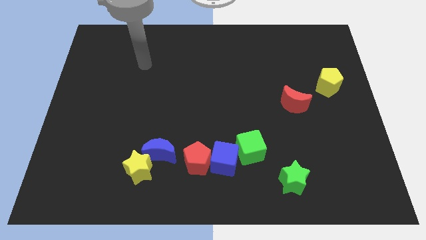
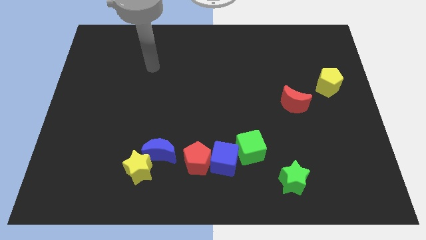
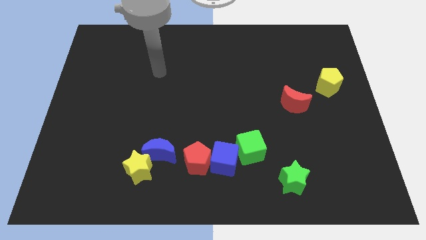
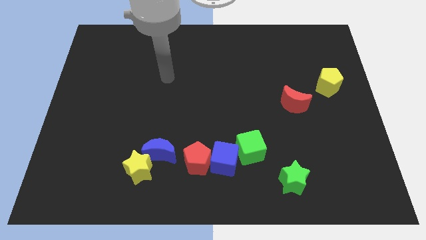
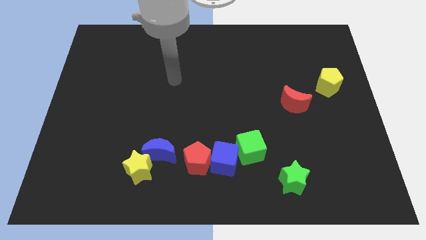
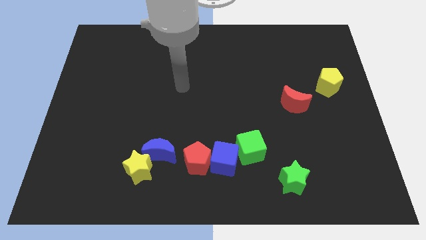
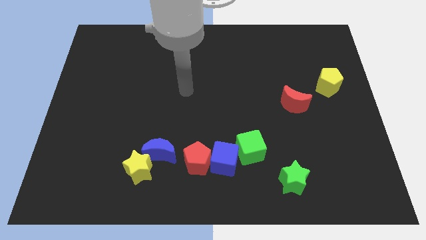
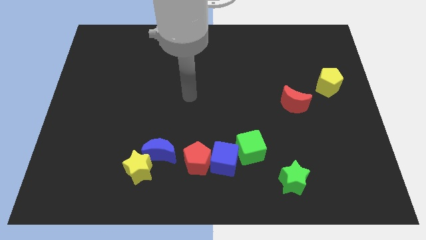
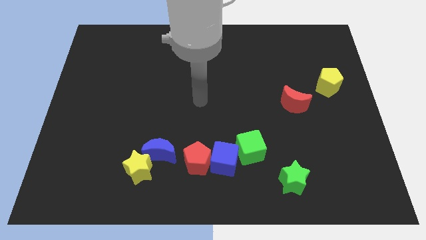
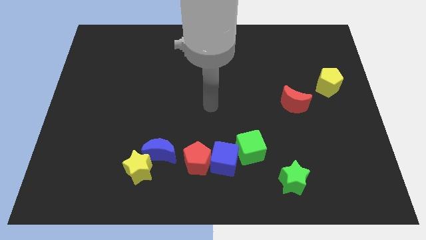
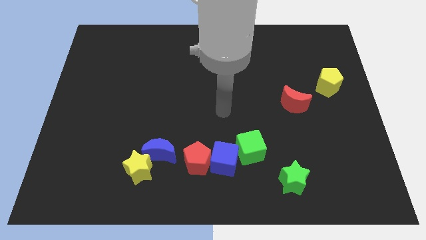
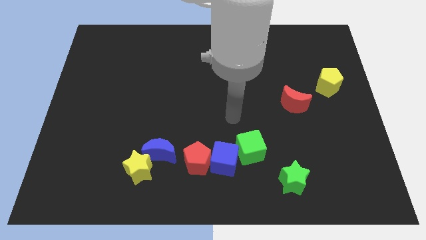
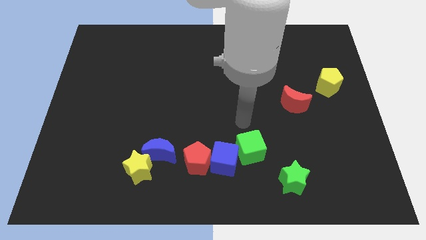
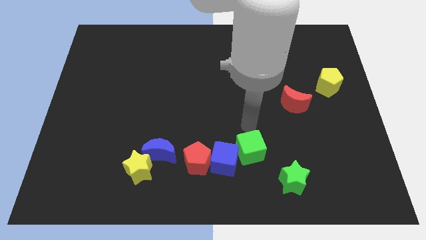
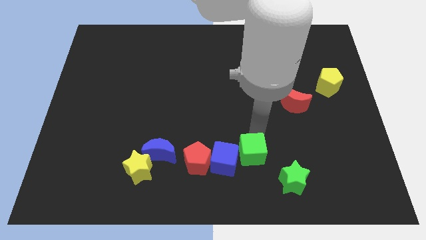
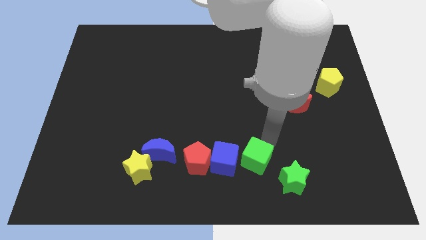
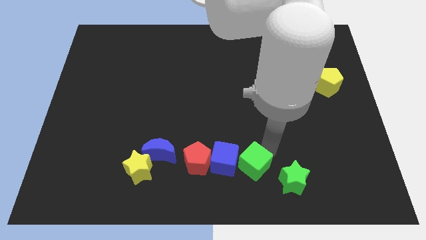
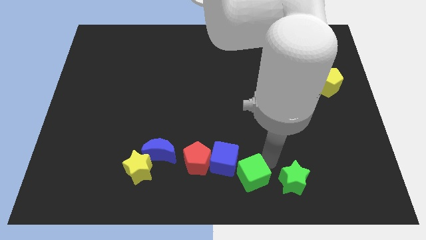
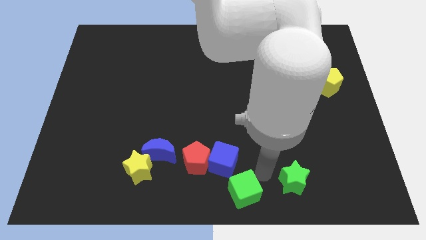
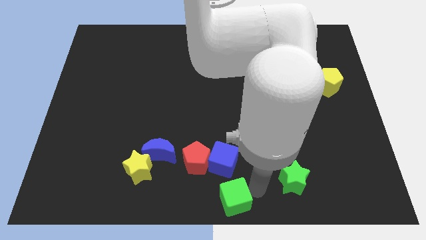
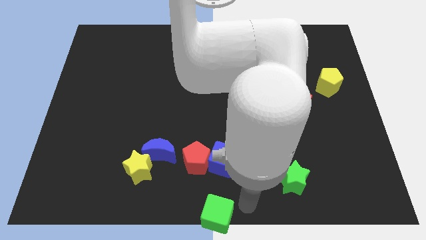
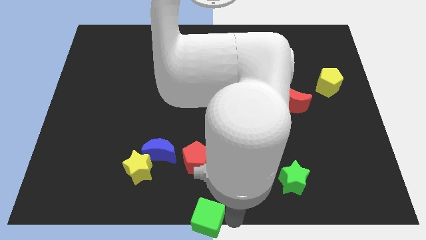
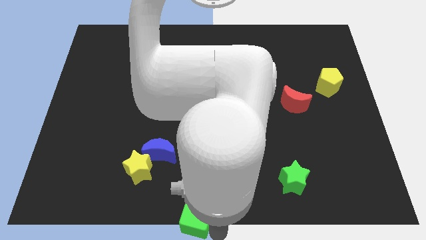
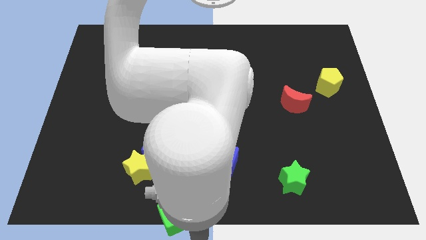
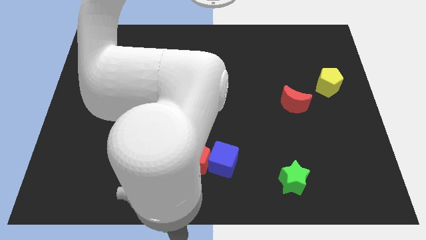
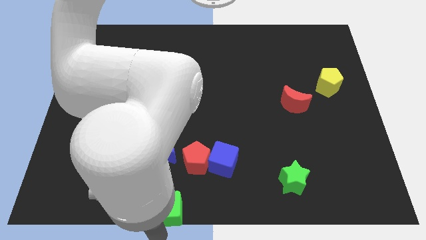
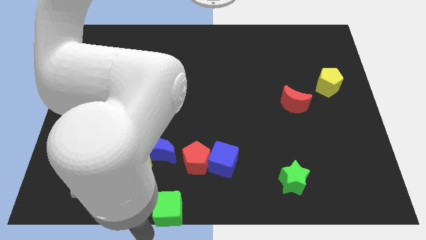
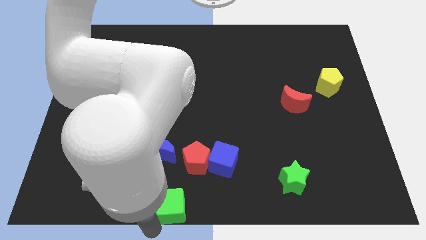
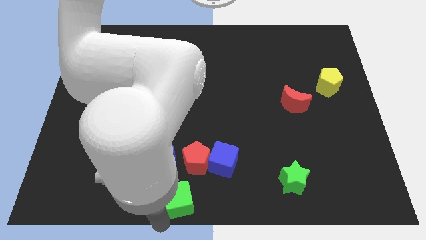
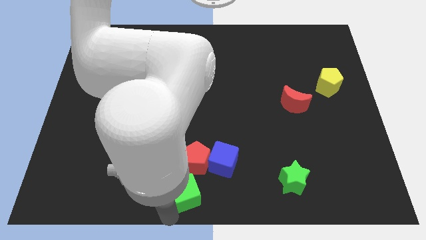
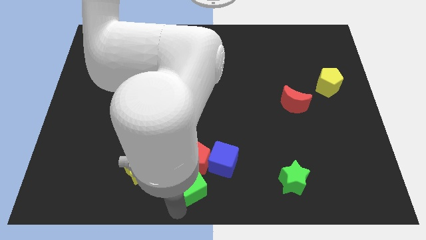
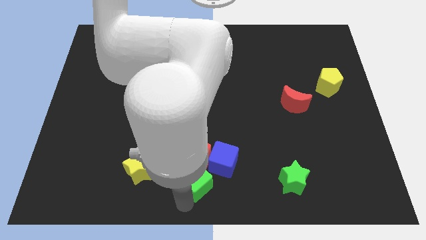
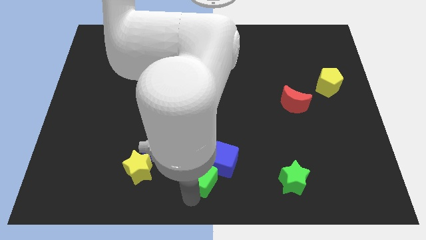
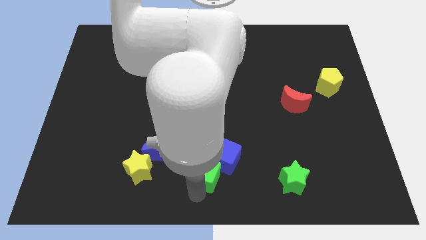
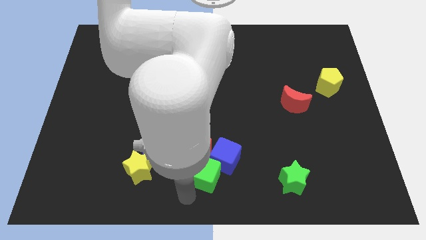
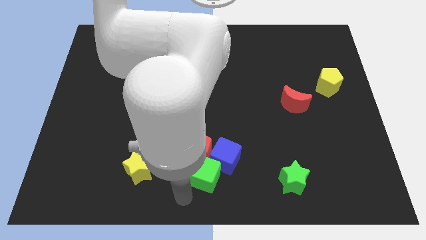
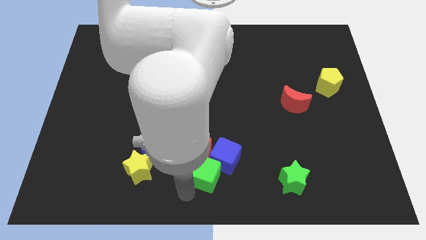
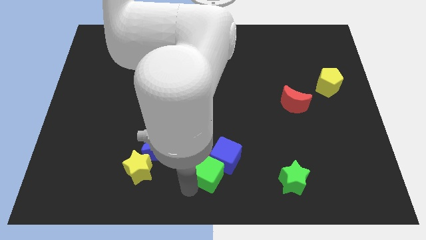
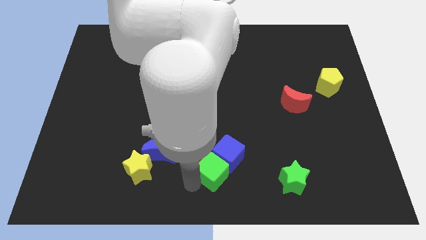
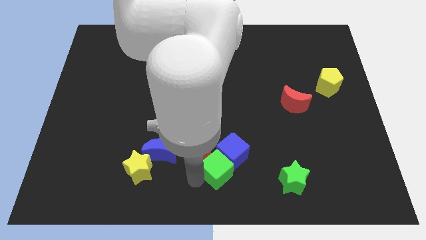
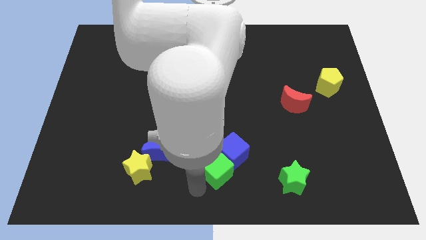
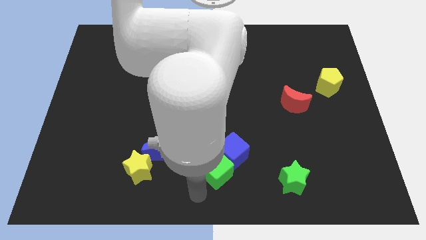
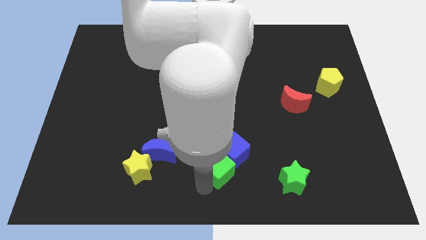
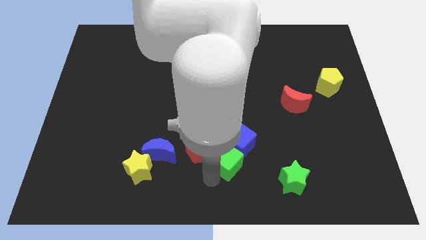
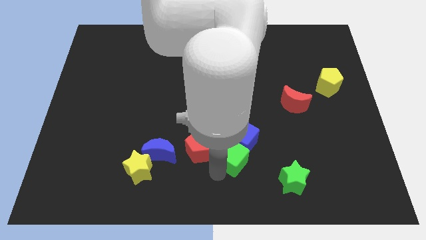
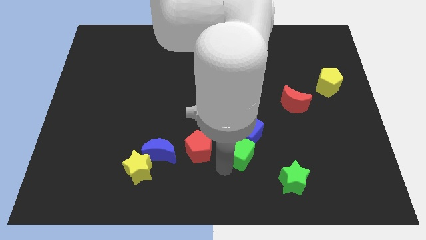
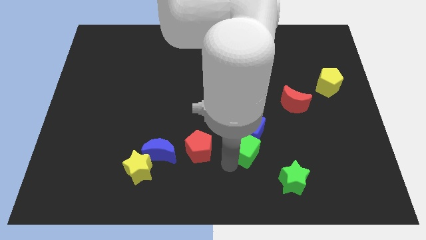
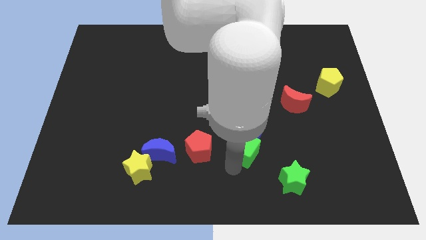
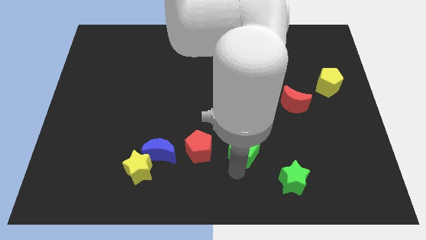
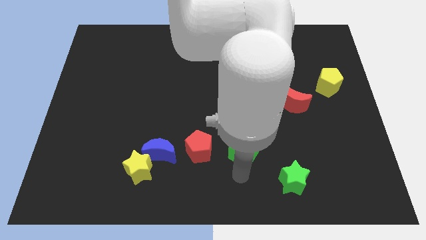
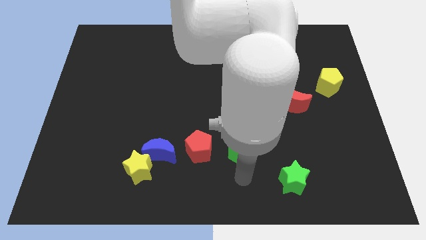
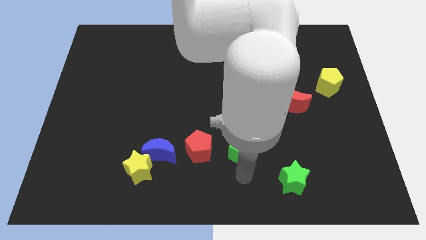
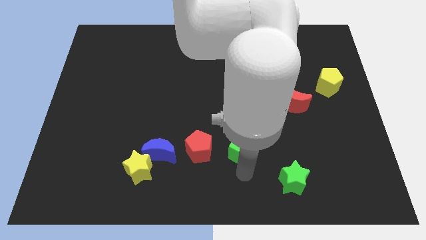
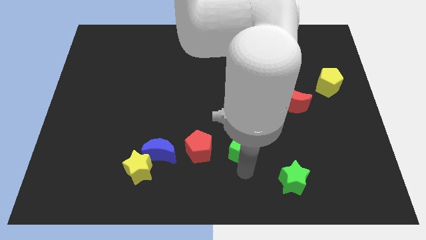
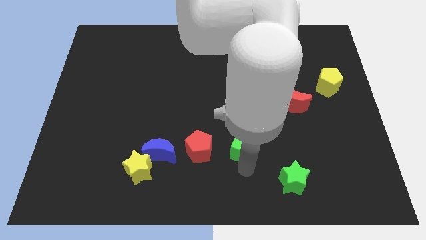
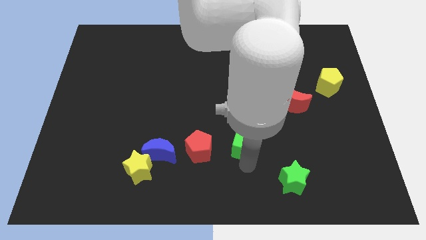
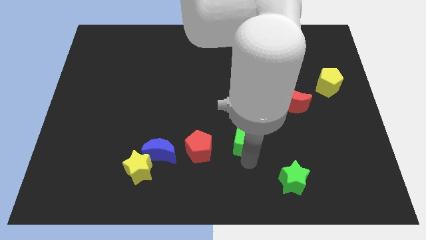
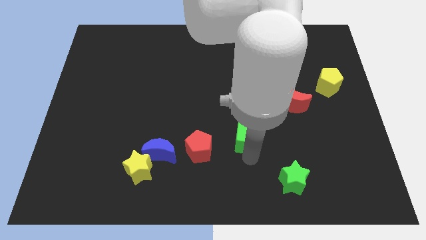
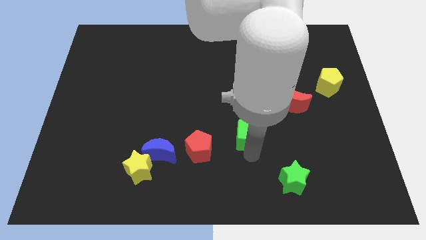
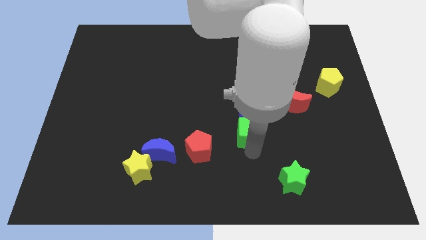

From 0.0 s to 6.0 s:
slide the green cube to the middle of the board

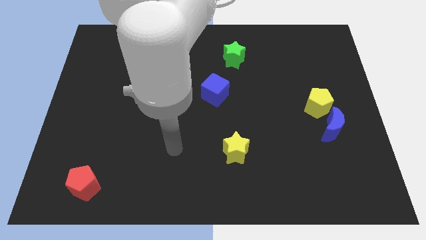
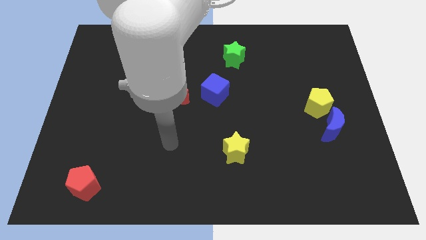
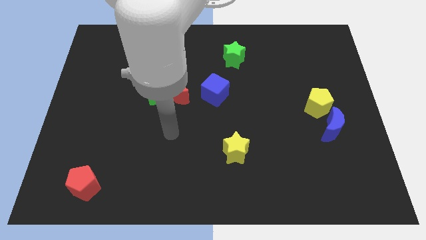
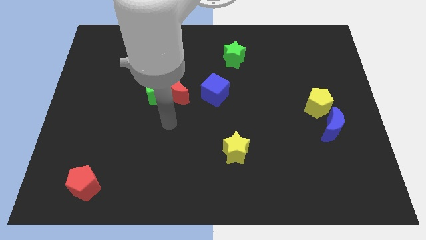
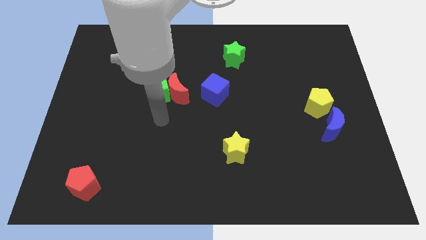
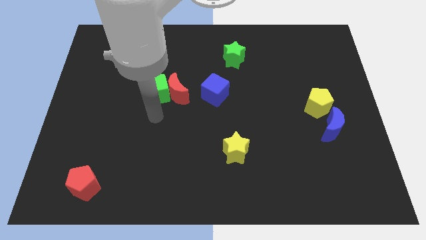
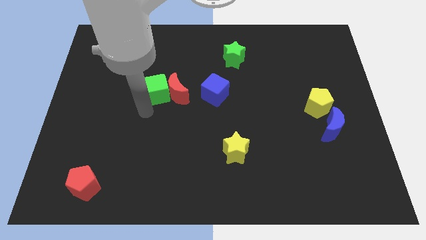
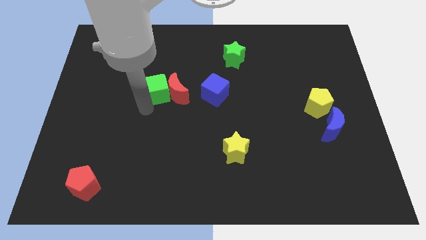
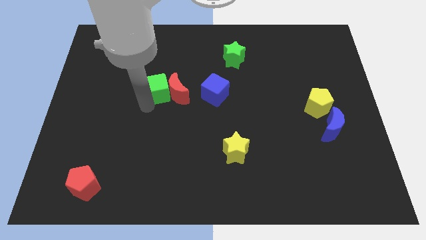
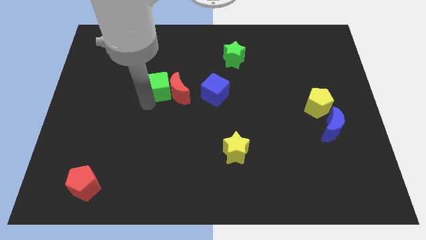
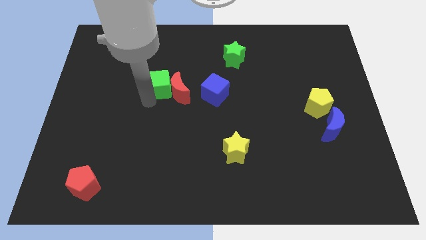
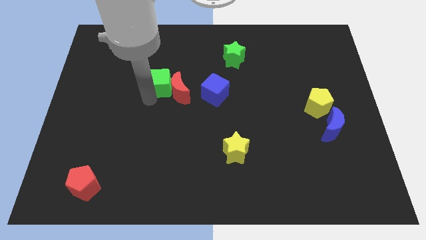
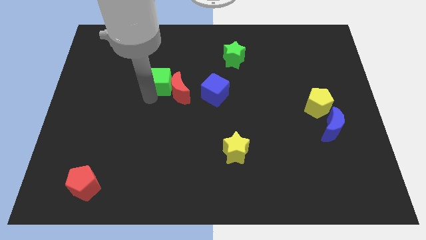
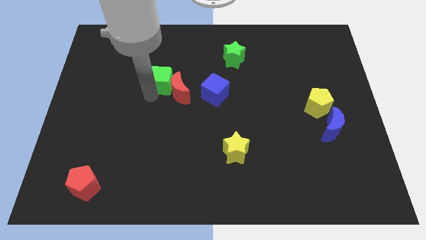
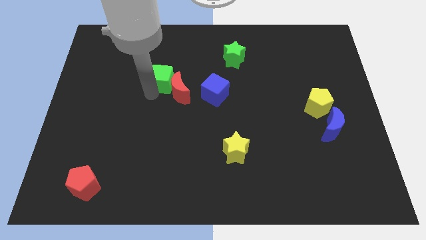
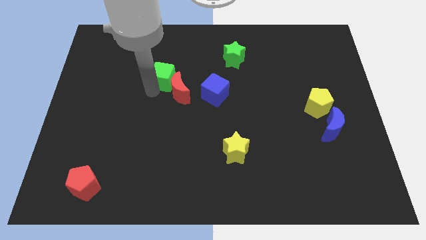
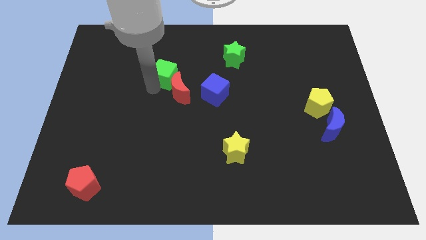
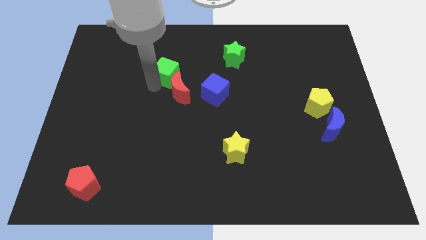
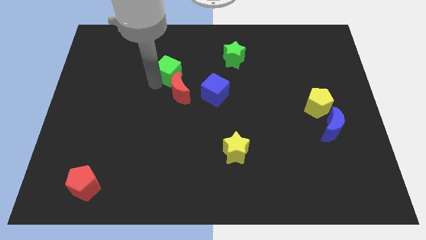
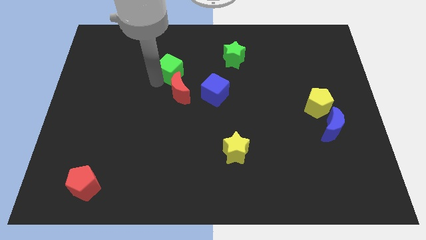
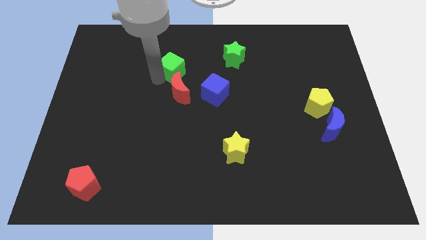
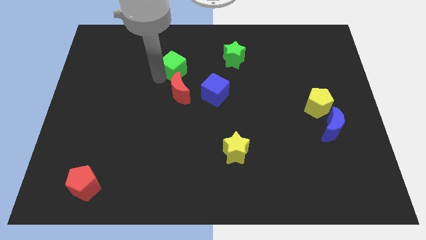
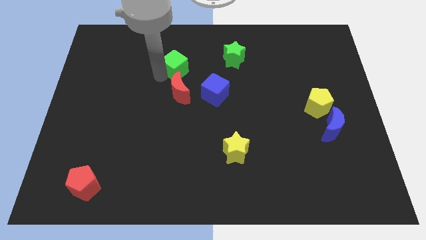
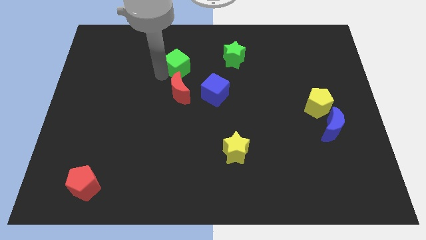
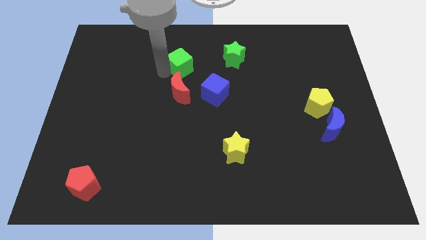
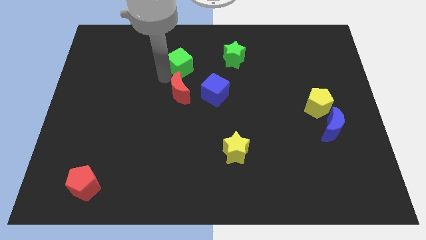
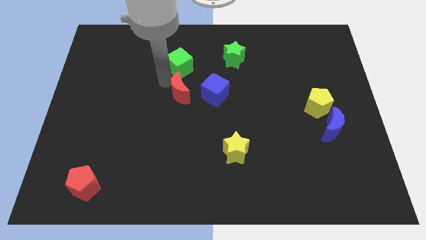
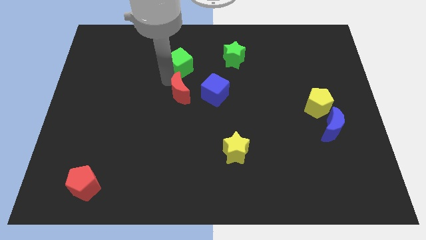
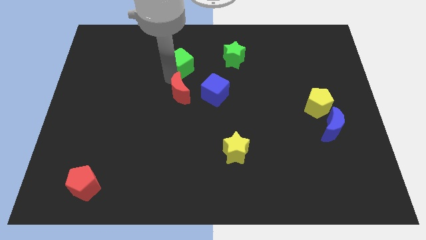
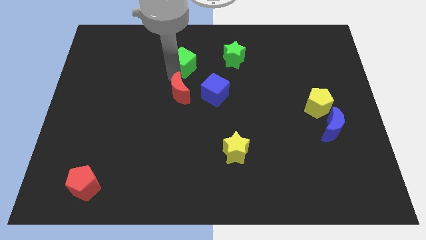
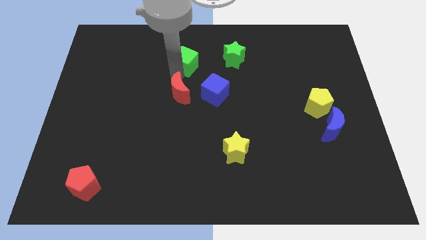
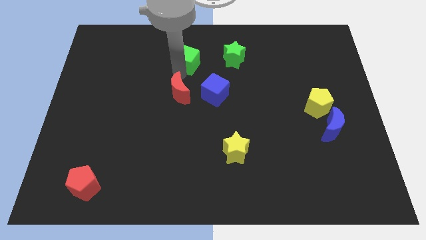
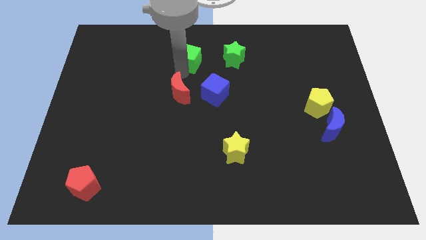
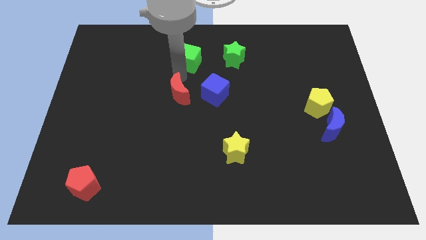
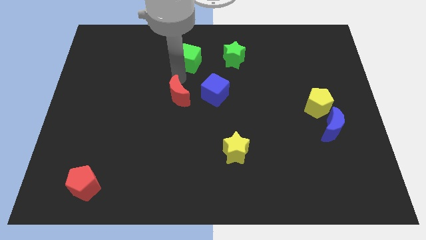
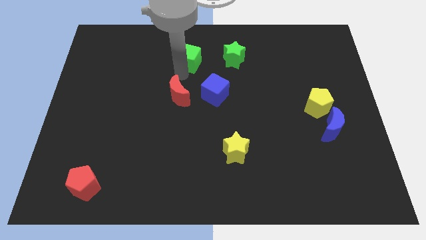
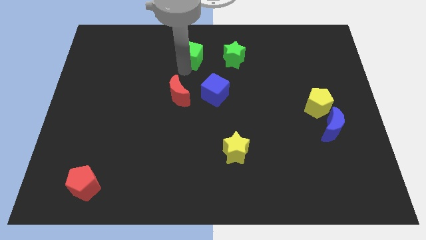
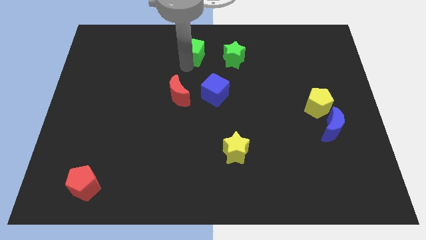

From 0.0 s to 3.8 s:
move the green cube to the top side
